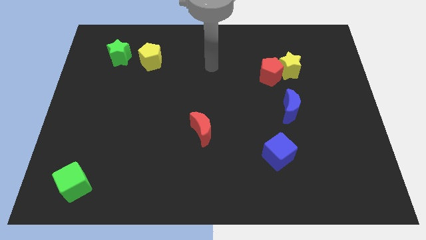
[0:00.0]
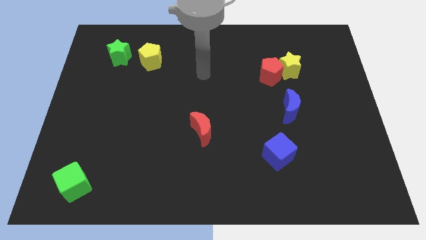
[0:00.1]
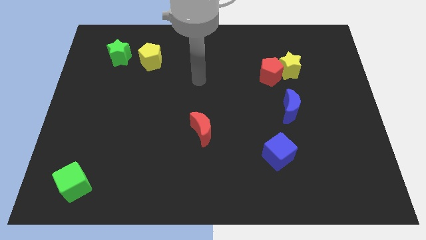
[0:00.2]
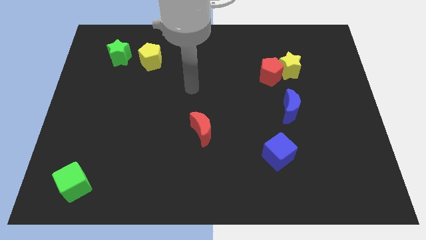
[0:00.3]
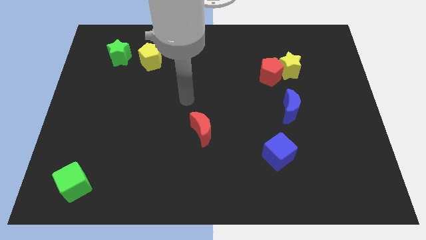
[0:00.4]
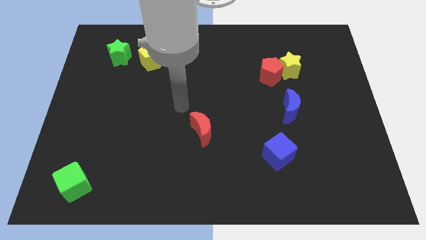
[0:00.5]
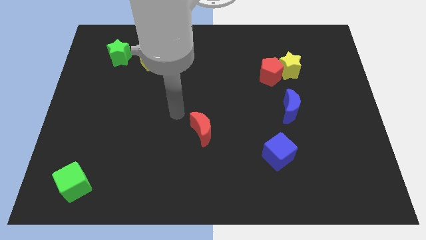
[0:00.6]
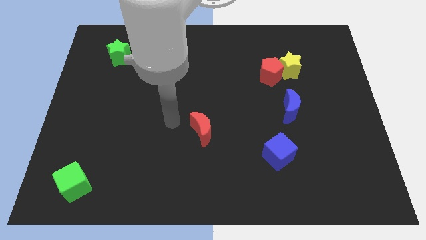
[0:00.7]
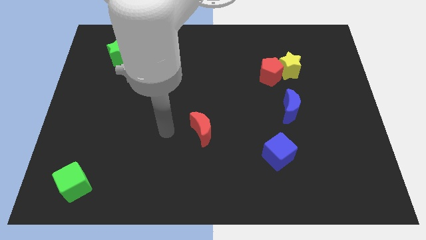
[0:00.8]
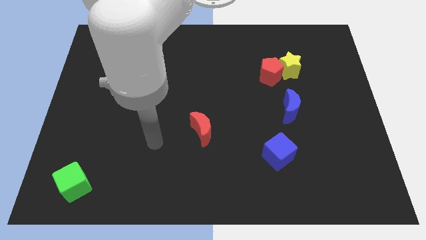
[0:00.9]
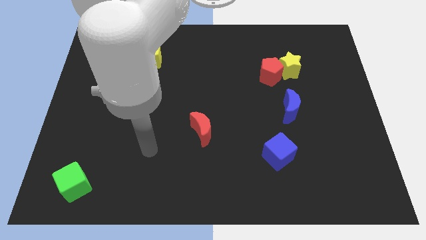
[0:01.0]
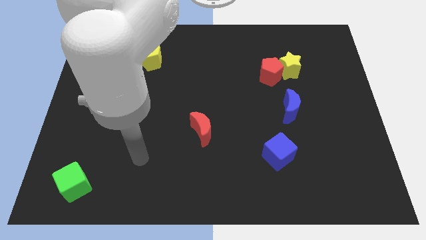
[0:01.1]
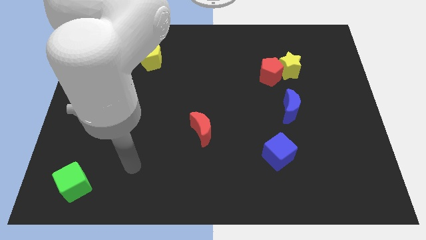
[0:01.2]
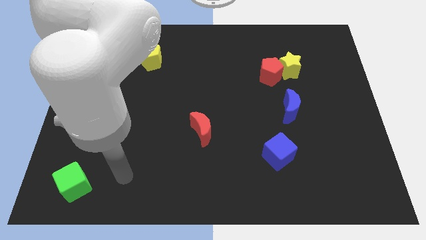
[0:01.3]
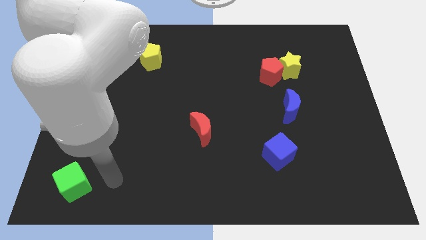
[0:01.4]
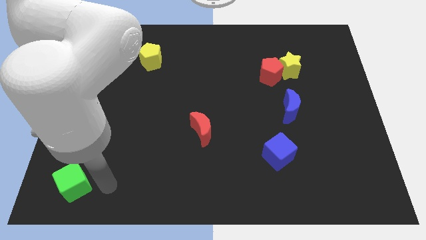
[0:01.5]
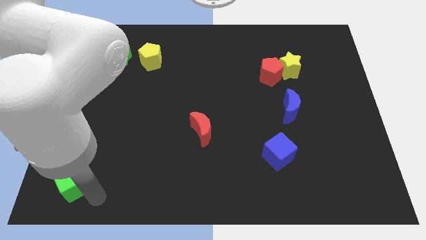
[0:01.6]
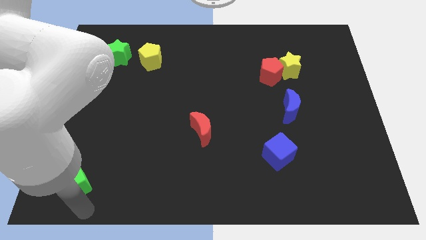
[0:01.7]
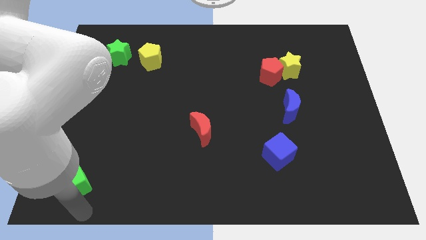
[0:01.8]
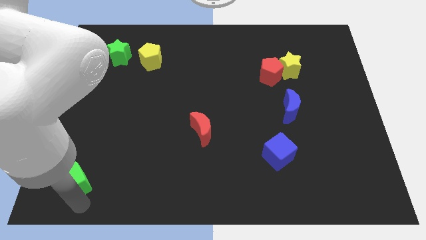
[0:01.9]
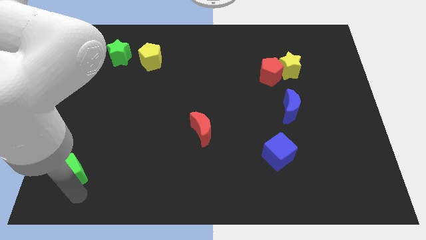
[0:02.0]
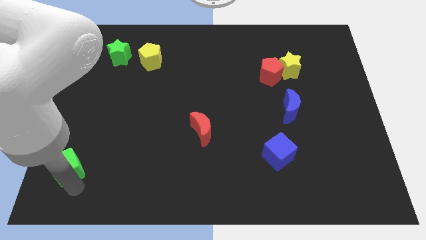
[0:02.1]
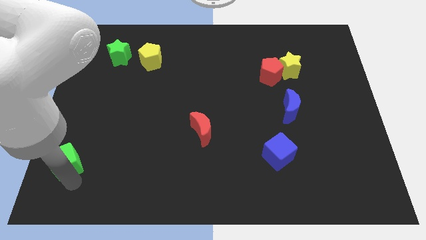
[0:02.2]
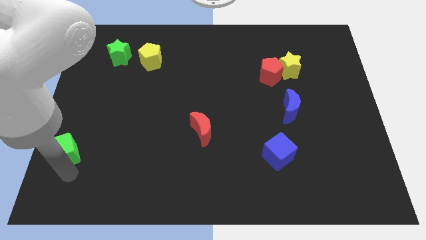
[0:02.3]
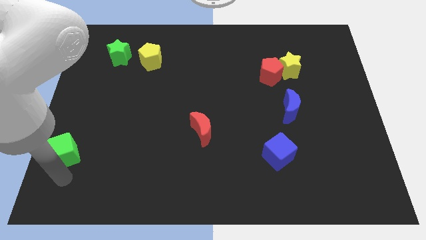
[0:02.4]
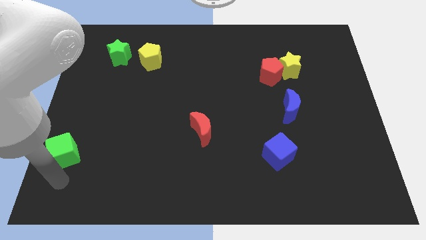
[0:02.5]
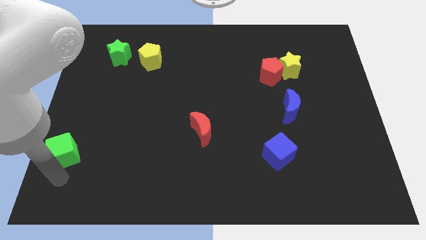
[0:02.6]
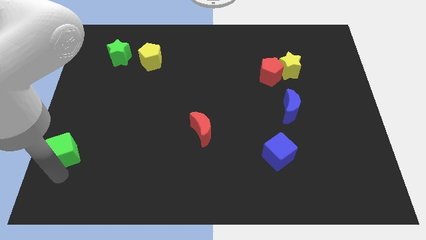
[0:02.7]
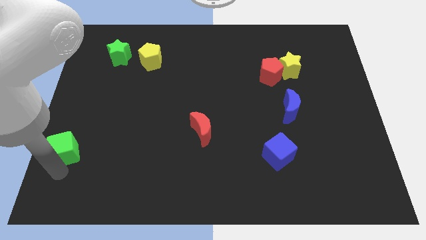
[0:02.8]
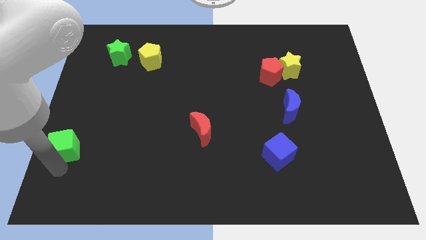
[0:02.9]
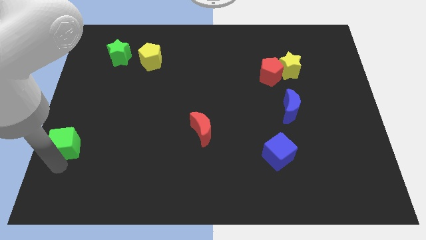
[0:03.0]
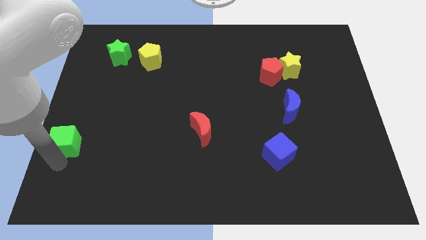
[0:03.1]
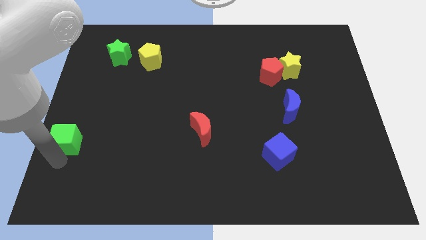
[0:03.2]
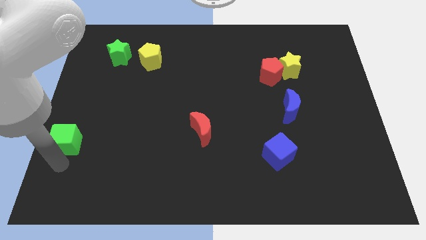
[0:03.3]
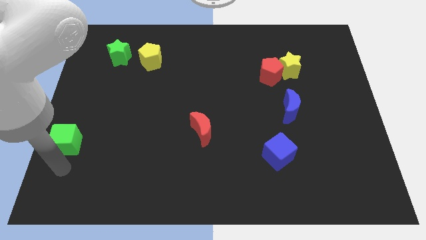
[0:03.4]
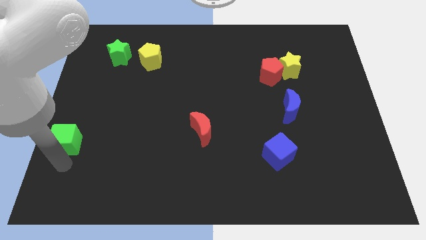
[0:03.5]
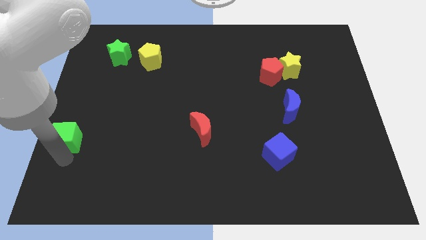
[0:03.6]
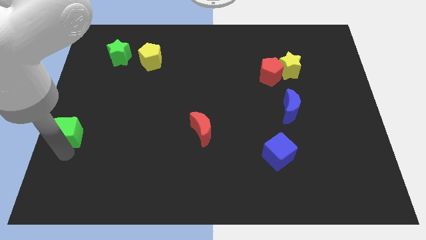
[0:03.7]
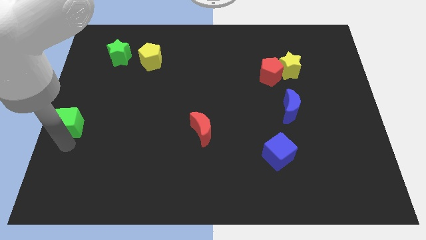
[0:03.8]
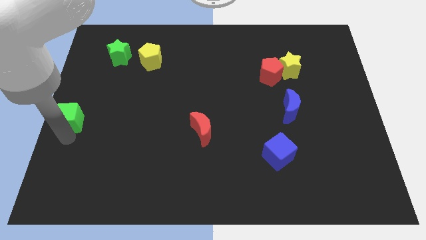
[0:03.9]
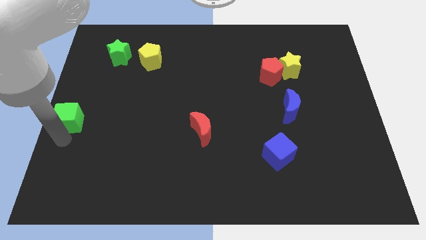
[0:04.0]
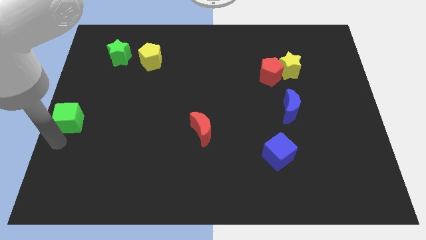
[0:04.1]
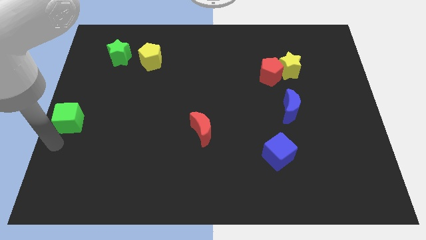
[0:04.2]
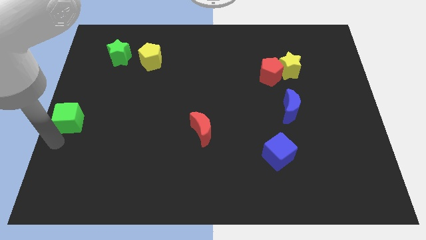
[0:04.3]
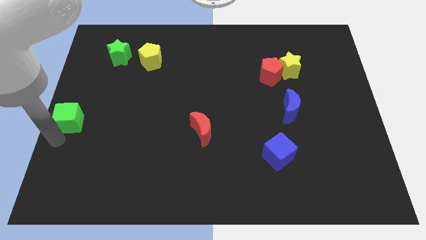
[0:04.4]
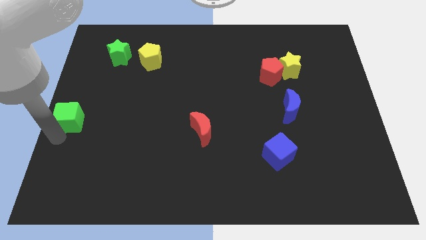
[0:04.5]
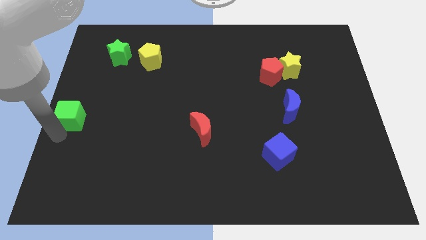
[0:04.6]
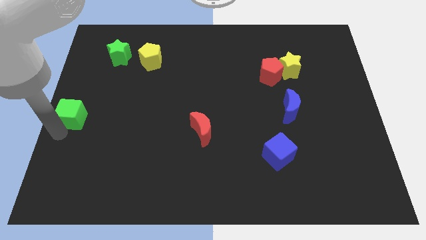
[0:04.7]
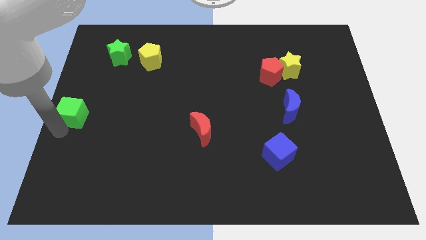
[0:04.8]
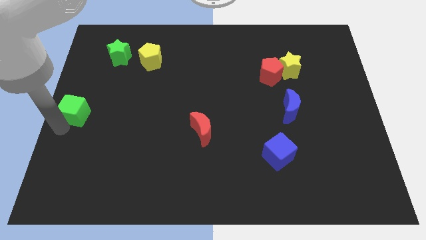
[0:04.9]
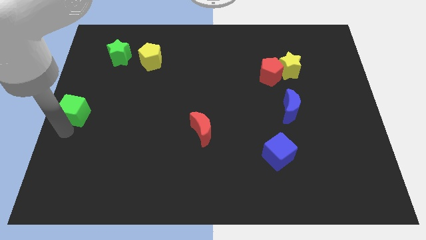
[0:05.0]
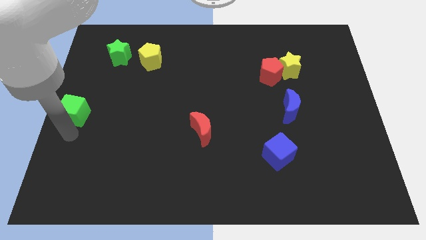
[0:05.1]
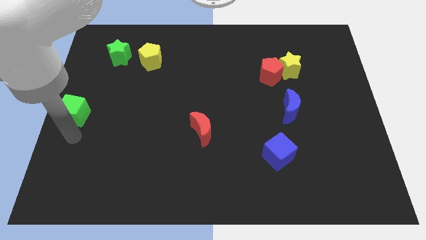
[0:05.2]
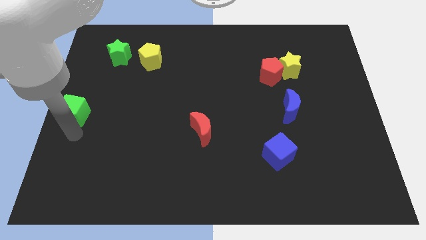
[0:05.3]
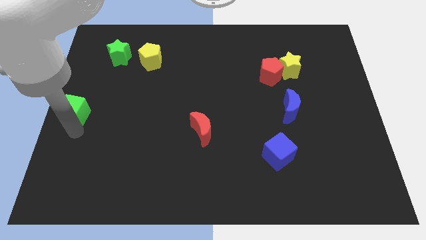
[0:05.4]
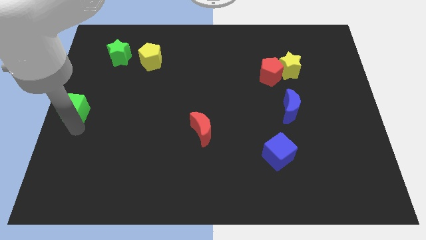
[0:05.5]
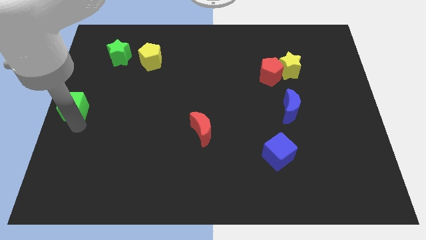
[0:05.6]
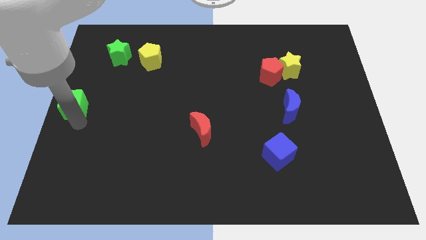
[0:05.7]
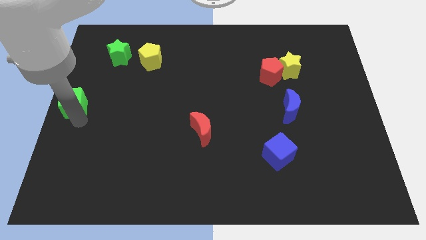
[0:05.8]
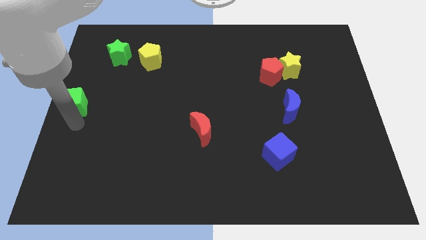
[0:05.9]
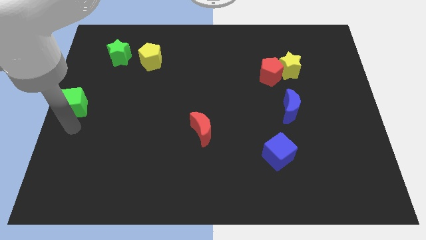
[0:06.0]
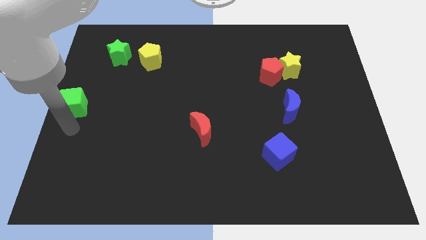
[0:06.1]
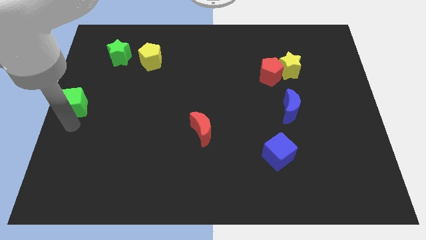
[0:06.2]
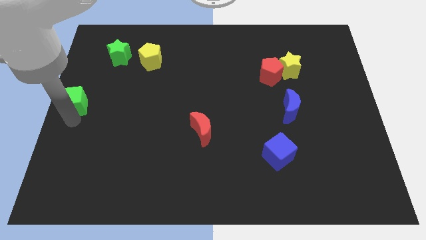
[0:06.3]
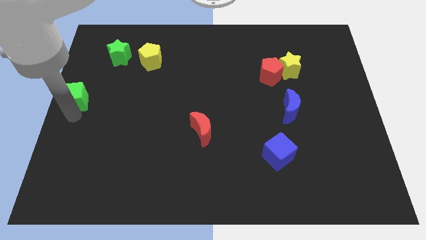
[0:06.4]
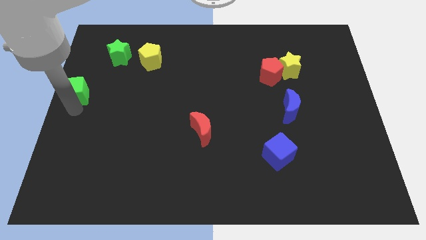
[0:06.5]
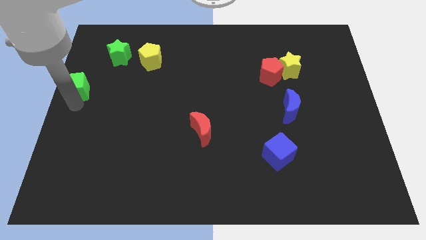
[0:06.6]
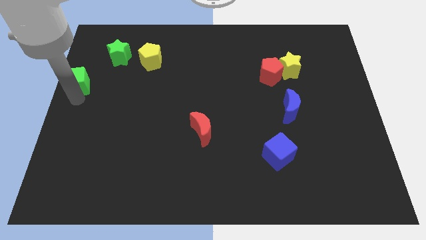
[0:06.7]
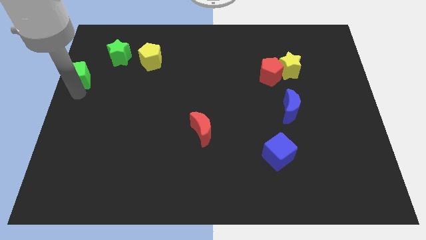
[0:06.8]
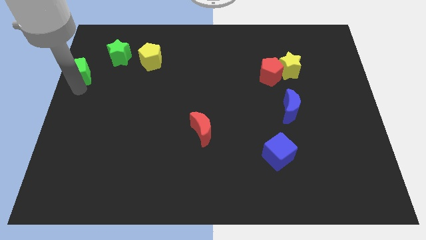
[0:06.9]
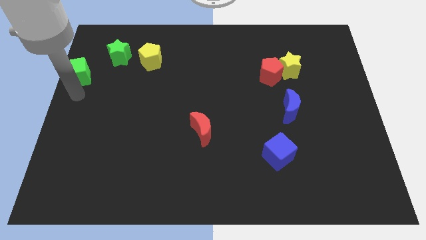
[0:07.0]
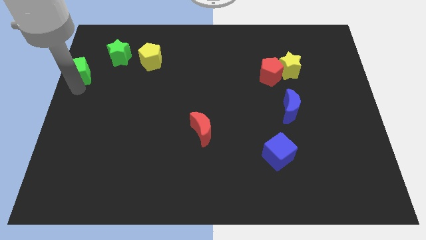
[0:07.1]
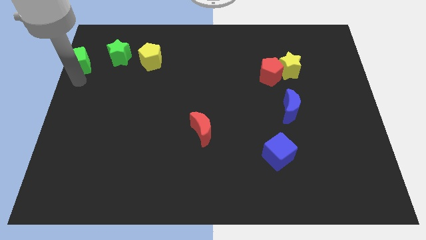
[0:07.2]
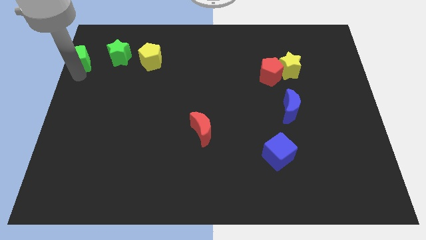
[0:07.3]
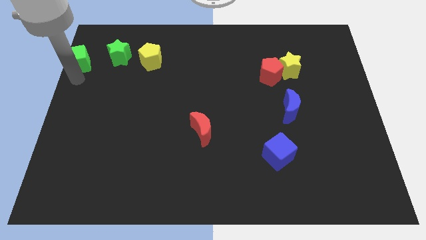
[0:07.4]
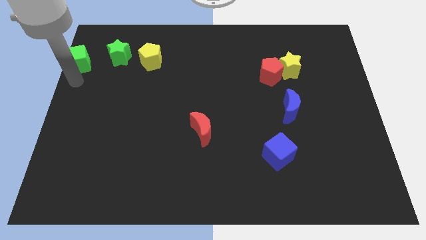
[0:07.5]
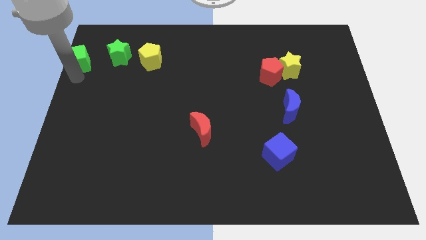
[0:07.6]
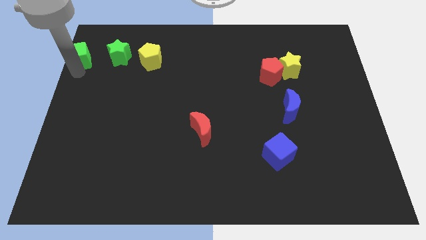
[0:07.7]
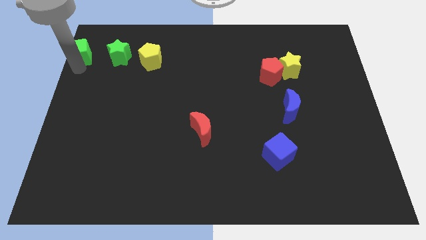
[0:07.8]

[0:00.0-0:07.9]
move the green cube to the top left corner

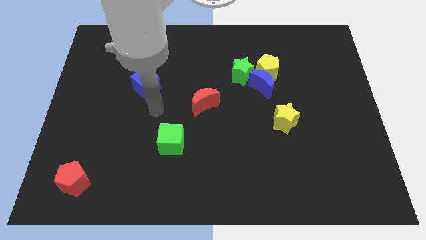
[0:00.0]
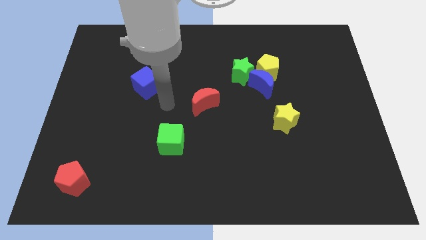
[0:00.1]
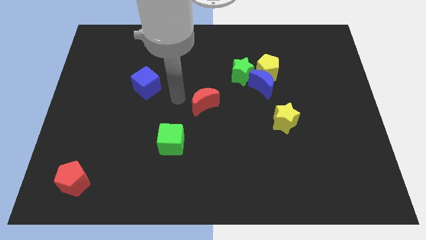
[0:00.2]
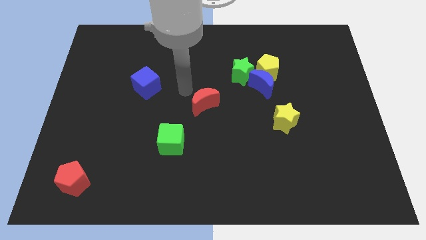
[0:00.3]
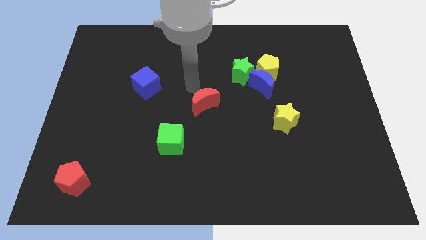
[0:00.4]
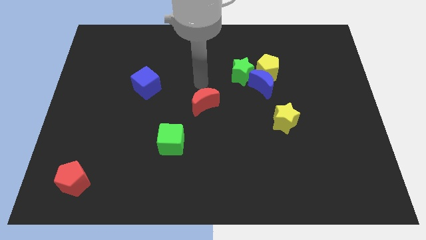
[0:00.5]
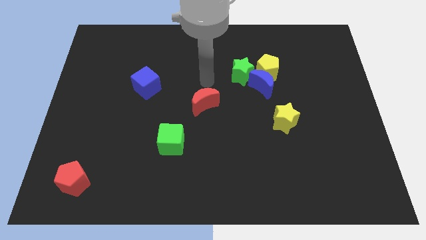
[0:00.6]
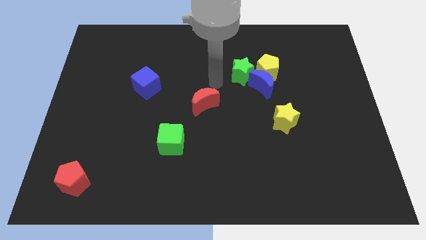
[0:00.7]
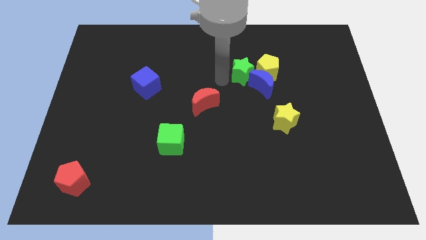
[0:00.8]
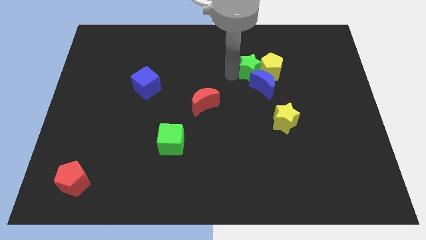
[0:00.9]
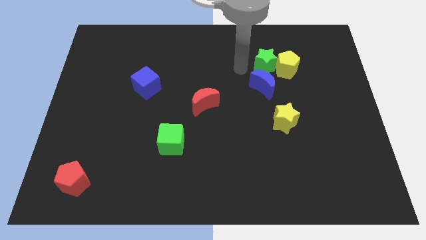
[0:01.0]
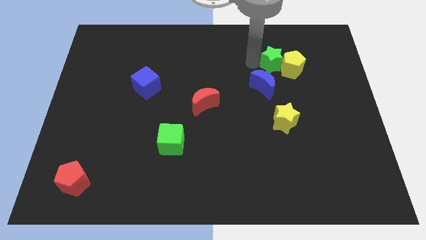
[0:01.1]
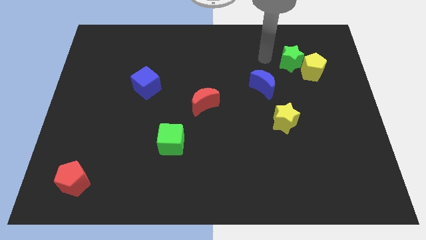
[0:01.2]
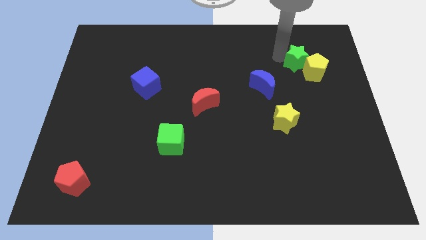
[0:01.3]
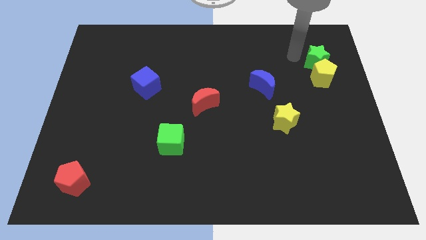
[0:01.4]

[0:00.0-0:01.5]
slide the yellow pentagon to the center right
